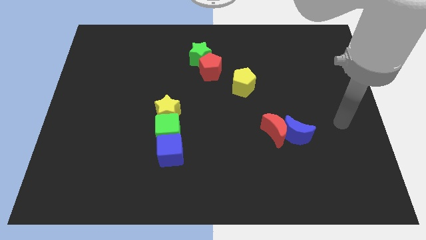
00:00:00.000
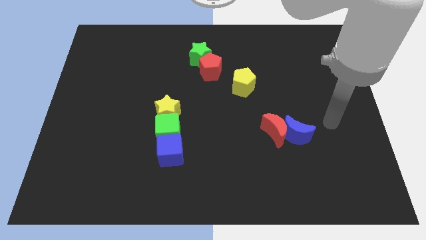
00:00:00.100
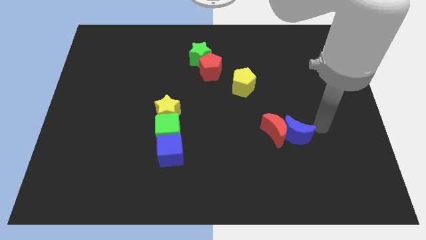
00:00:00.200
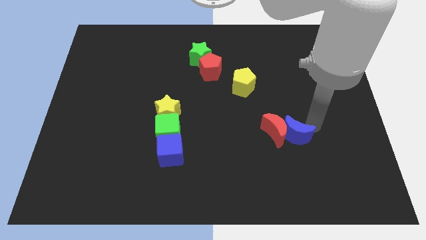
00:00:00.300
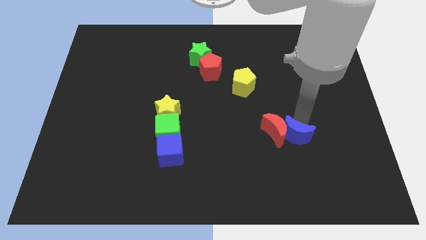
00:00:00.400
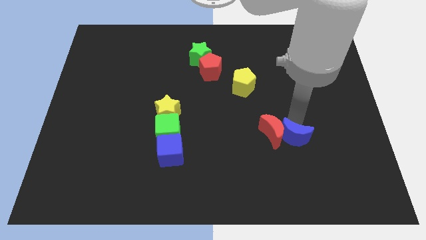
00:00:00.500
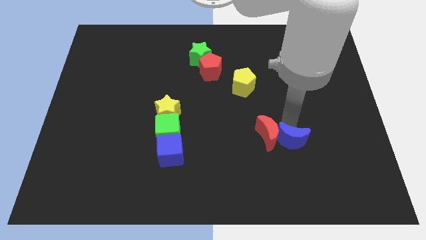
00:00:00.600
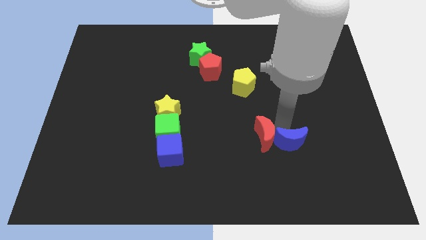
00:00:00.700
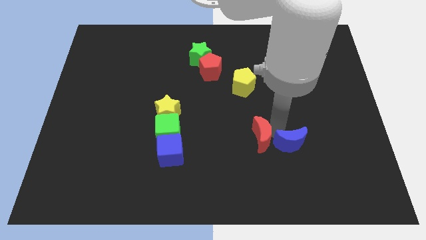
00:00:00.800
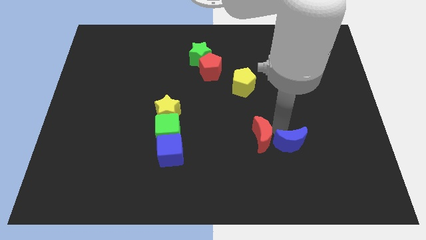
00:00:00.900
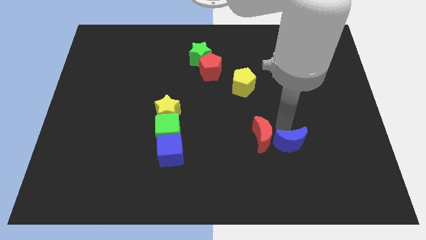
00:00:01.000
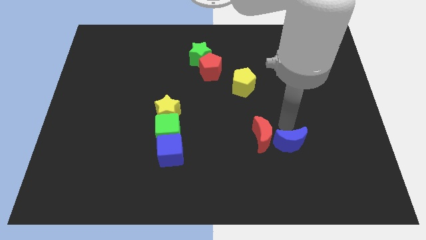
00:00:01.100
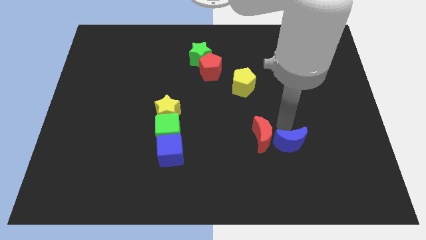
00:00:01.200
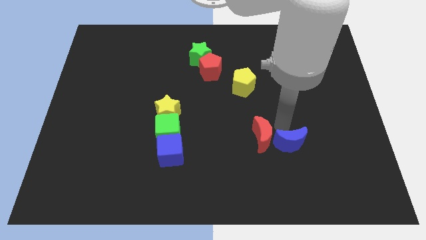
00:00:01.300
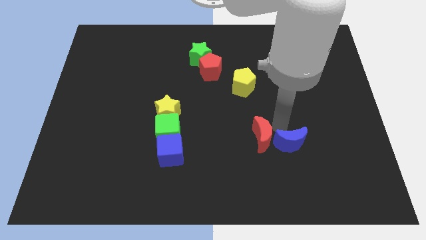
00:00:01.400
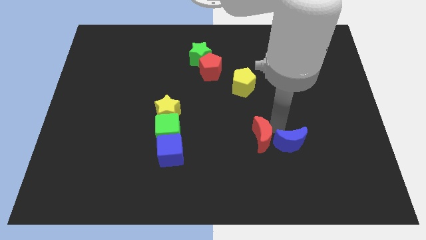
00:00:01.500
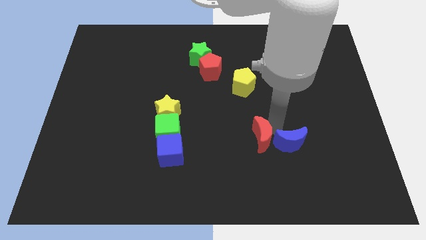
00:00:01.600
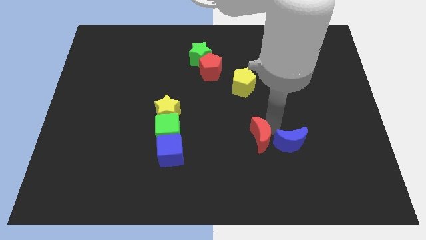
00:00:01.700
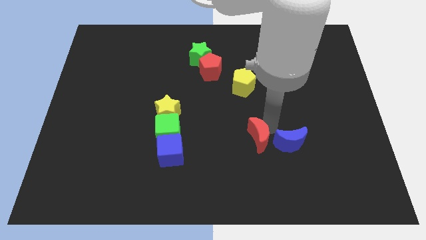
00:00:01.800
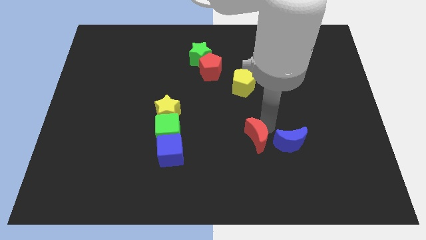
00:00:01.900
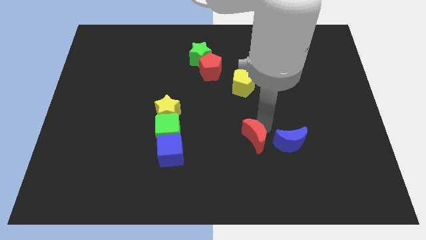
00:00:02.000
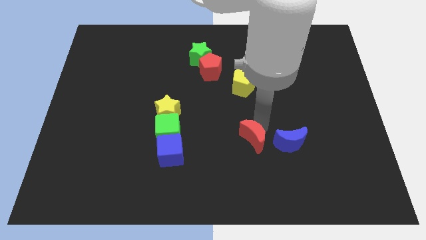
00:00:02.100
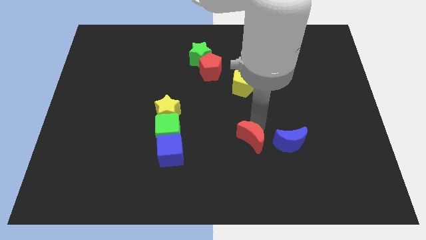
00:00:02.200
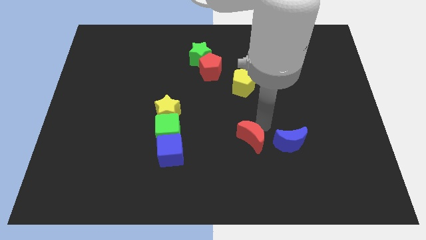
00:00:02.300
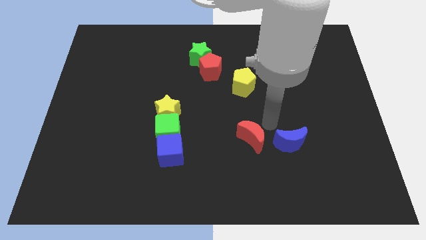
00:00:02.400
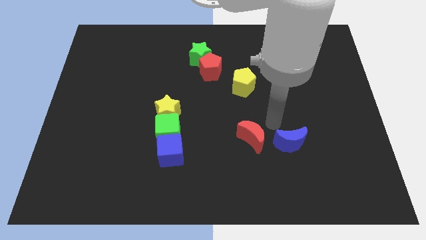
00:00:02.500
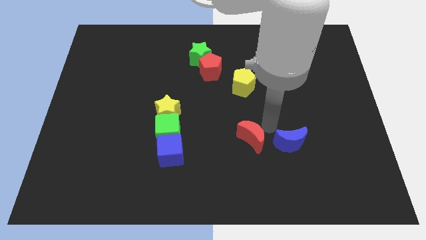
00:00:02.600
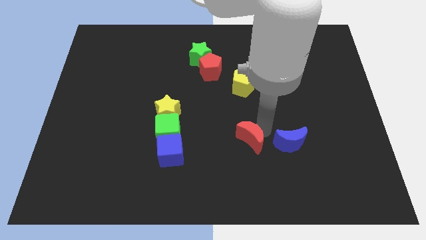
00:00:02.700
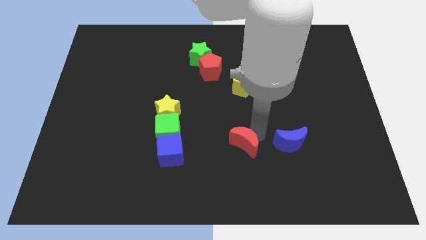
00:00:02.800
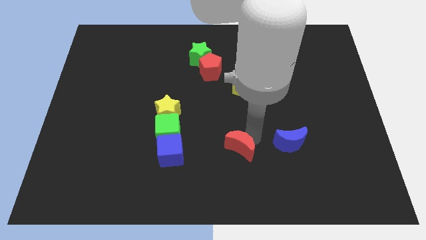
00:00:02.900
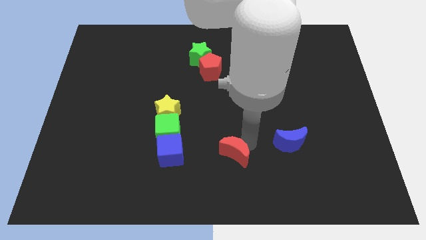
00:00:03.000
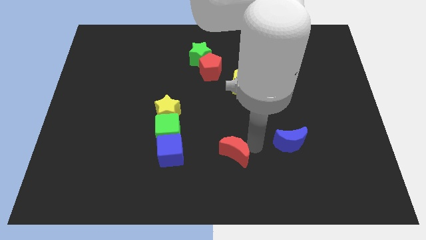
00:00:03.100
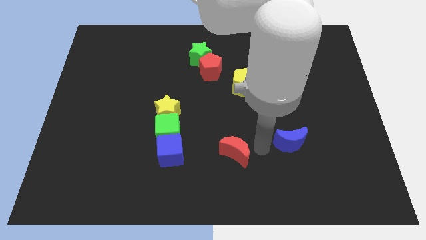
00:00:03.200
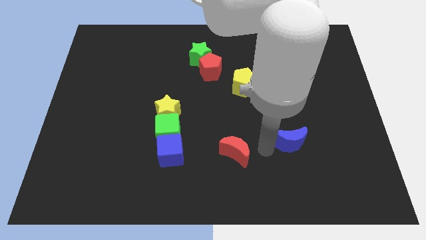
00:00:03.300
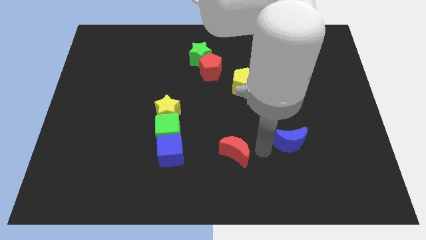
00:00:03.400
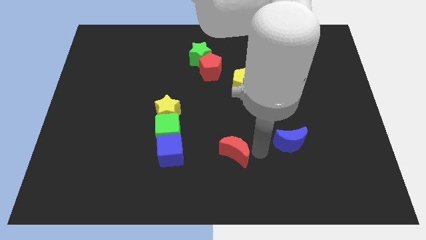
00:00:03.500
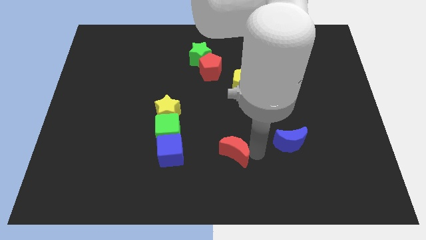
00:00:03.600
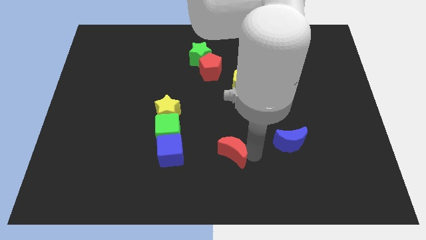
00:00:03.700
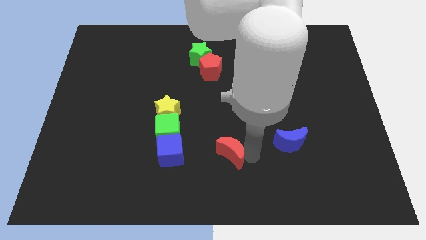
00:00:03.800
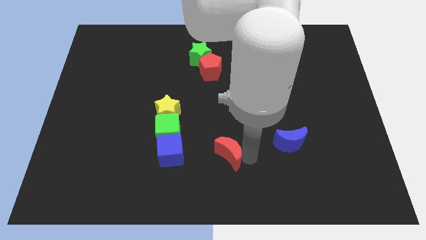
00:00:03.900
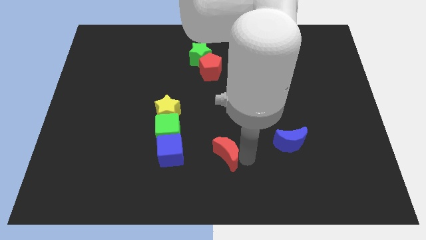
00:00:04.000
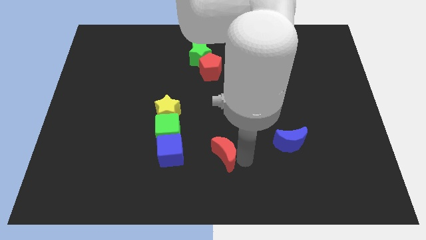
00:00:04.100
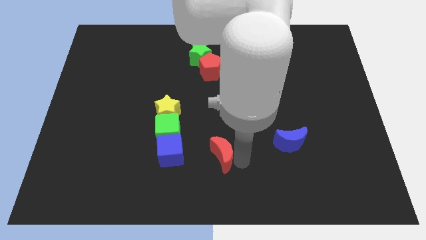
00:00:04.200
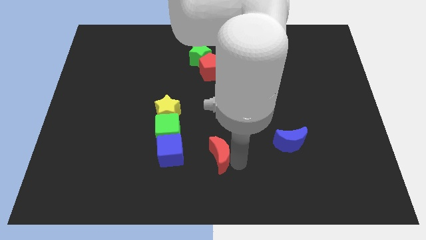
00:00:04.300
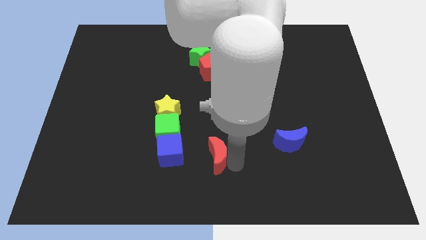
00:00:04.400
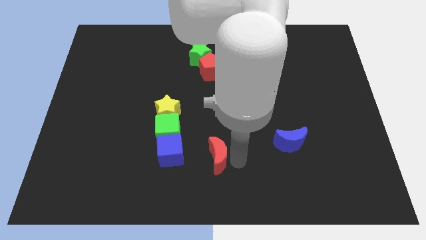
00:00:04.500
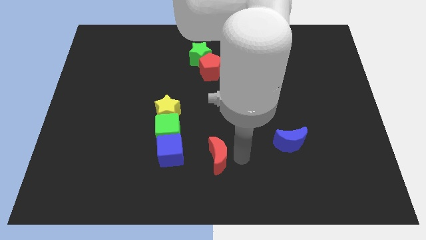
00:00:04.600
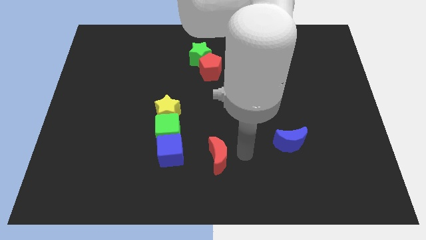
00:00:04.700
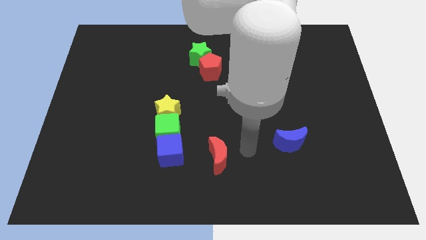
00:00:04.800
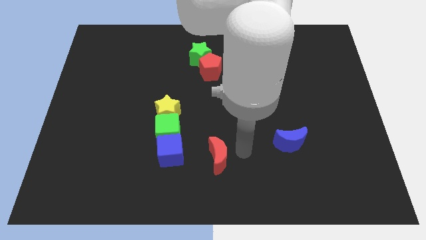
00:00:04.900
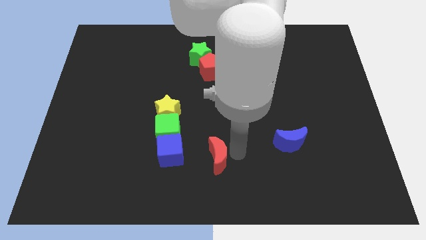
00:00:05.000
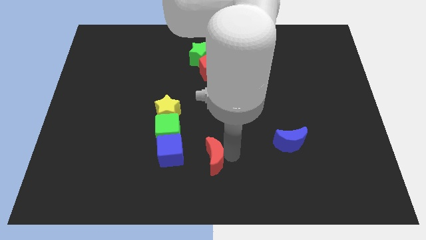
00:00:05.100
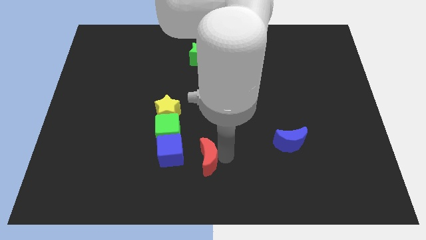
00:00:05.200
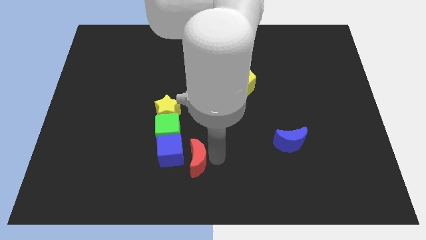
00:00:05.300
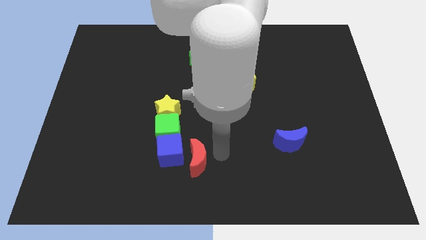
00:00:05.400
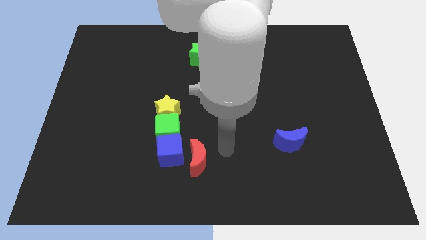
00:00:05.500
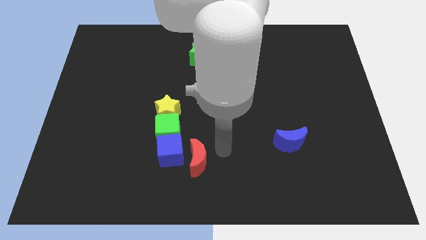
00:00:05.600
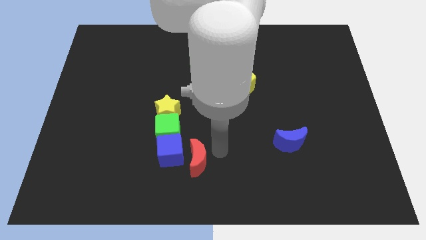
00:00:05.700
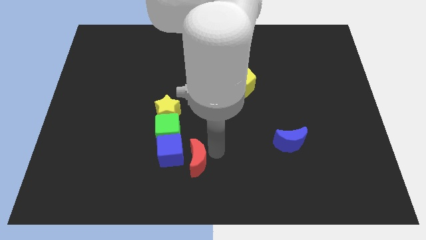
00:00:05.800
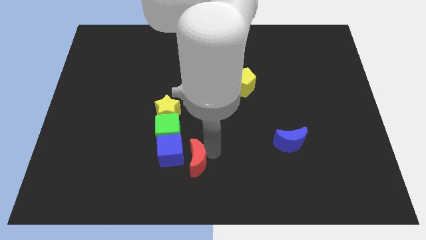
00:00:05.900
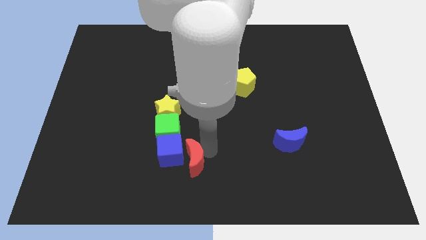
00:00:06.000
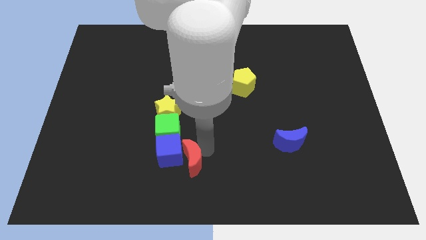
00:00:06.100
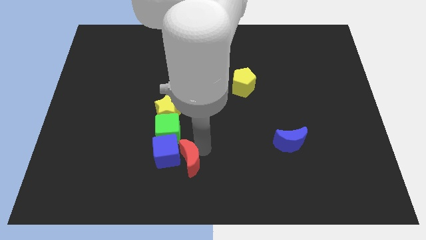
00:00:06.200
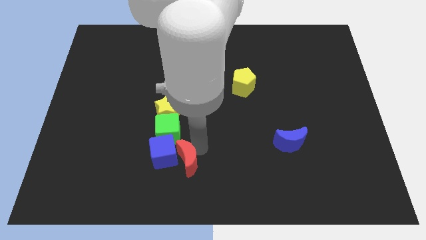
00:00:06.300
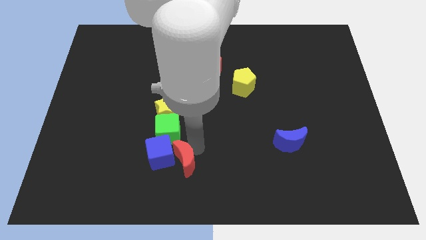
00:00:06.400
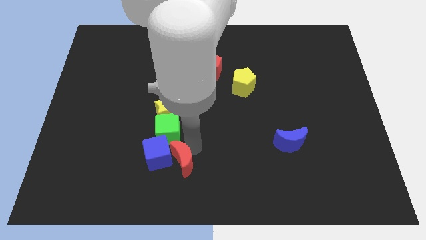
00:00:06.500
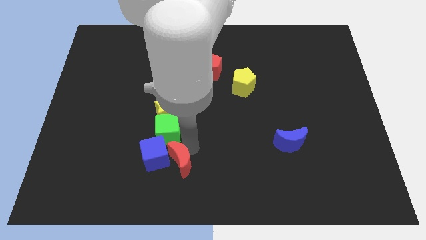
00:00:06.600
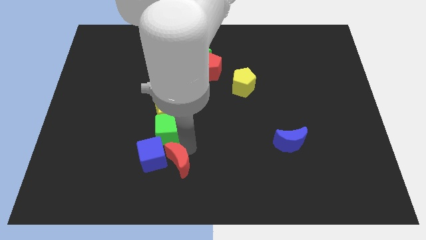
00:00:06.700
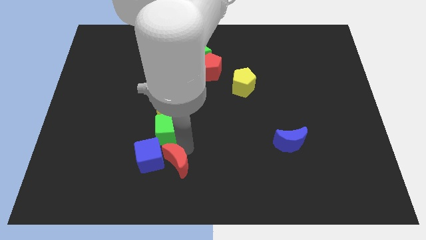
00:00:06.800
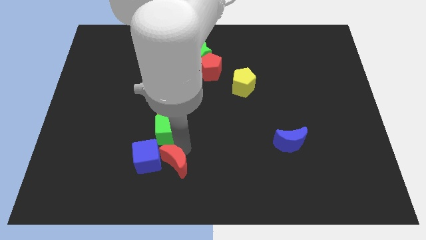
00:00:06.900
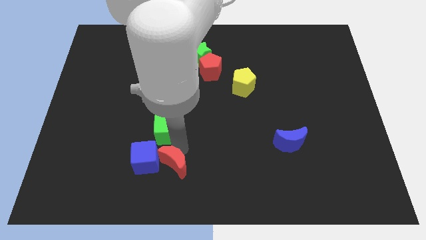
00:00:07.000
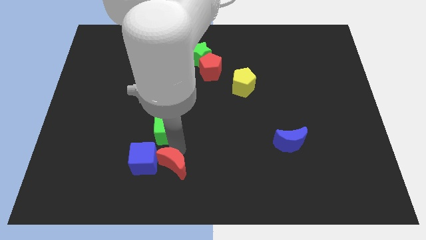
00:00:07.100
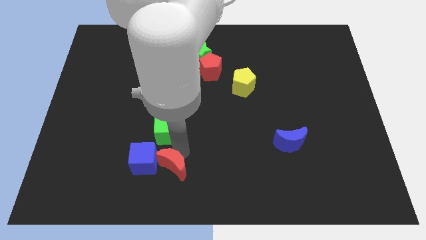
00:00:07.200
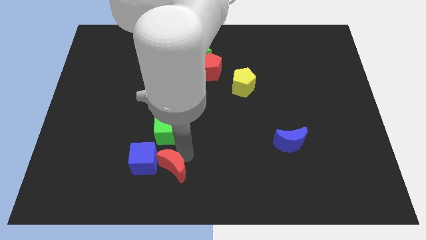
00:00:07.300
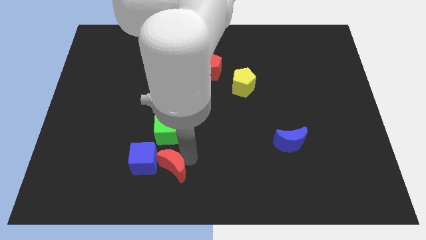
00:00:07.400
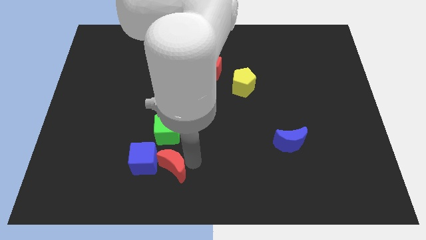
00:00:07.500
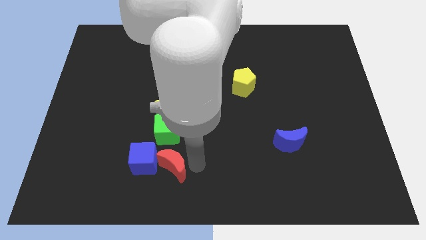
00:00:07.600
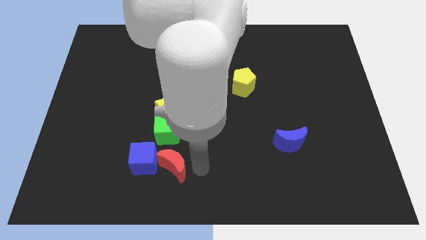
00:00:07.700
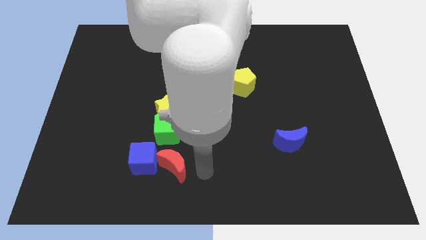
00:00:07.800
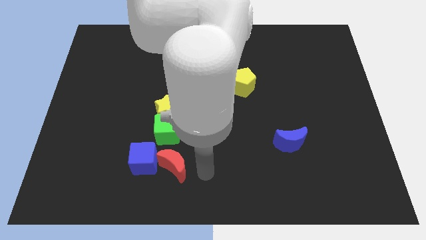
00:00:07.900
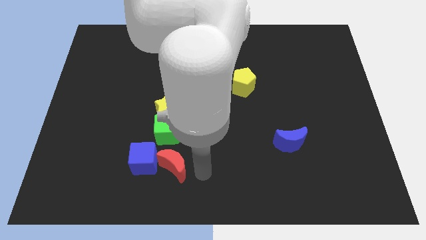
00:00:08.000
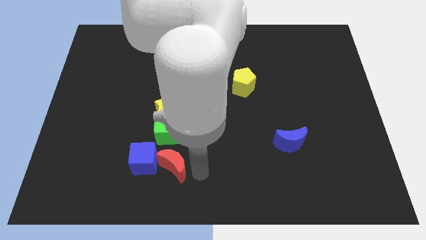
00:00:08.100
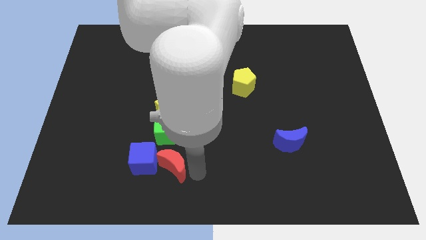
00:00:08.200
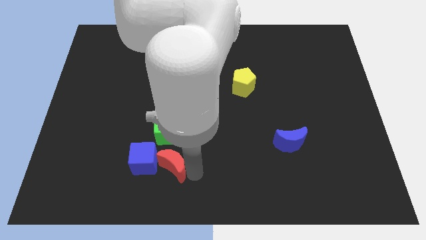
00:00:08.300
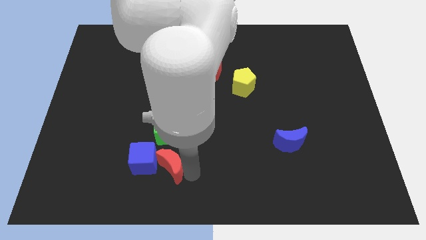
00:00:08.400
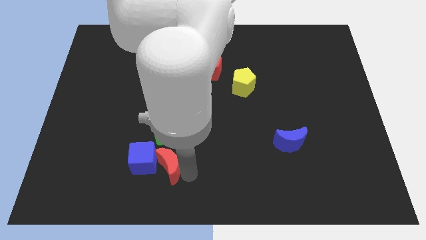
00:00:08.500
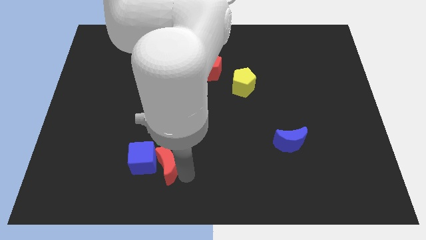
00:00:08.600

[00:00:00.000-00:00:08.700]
slide the red moon left
